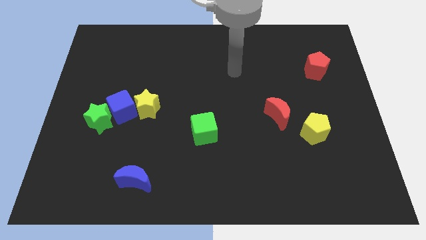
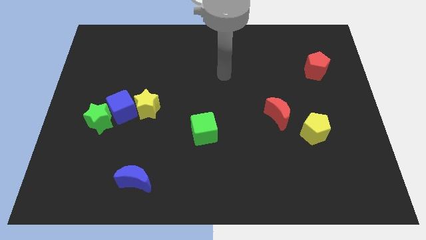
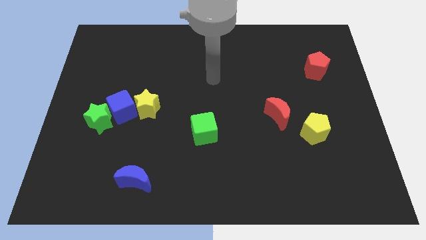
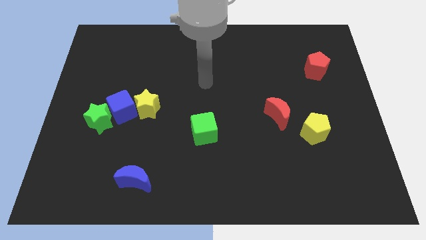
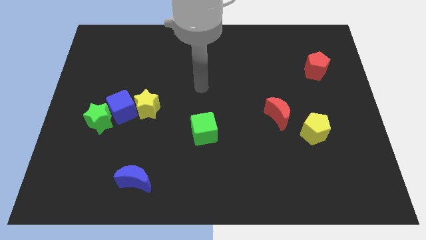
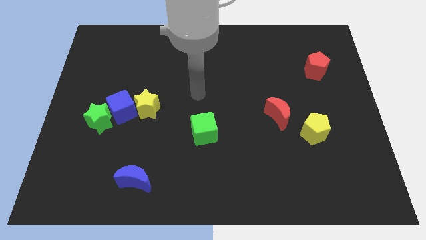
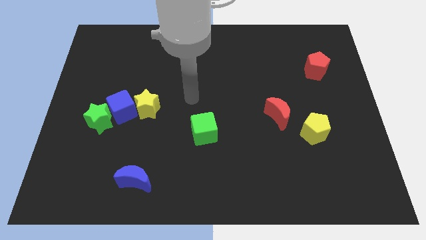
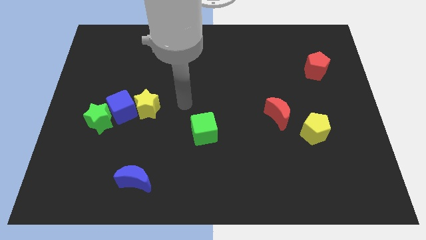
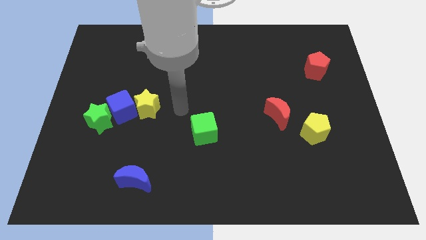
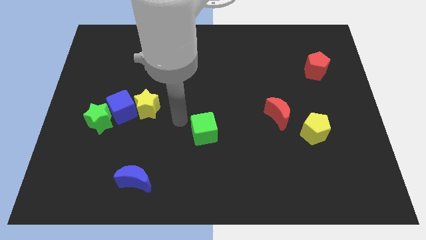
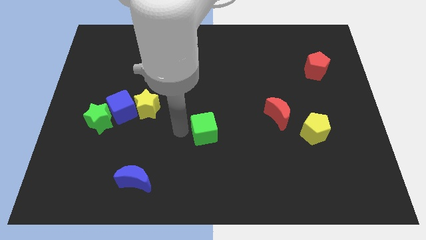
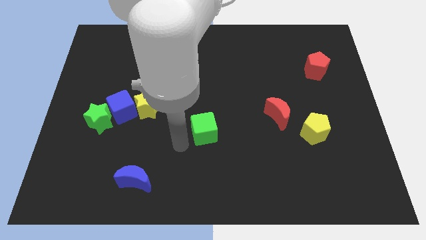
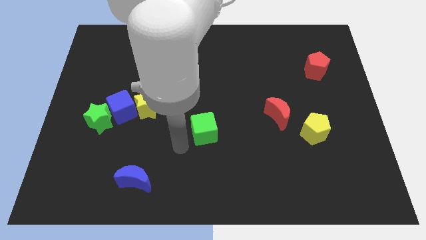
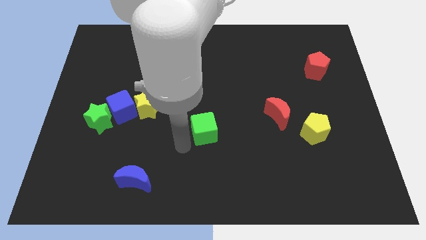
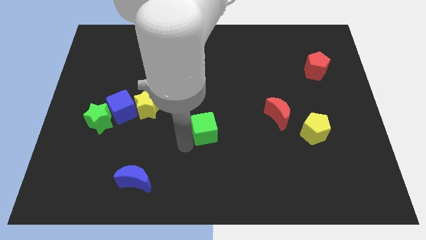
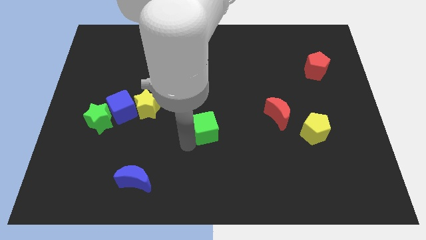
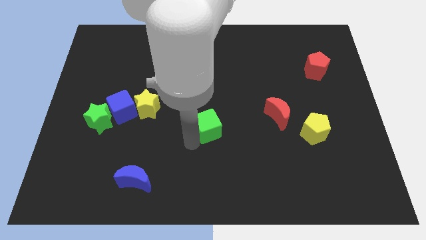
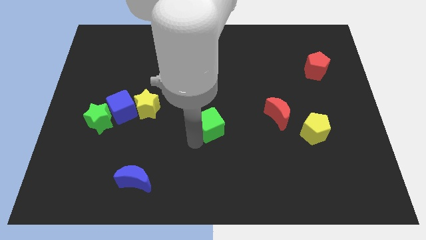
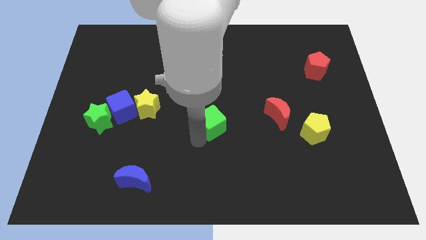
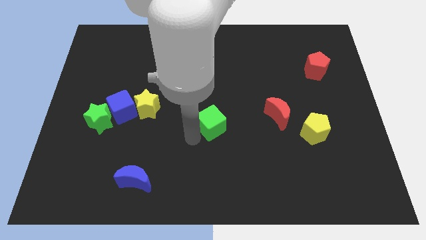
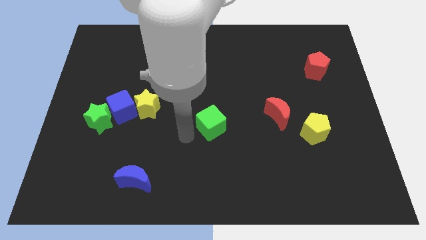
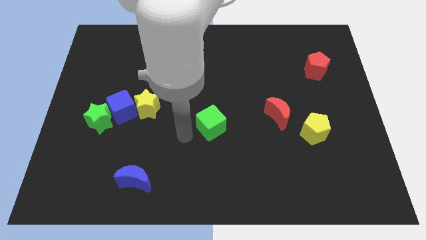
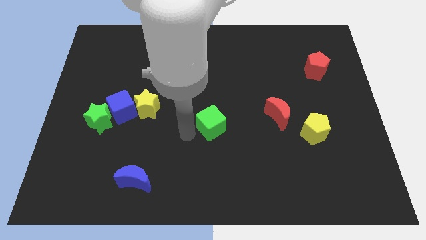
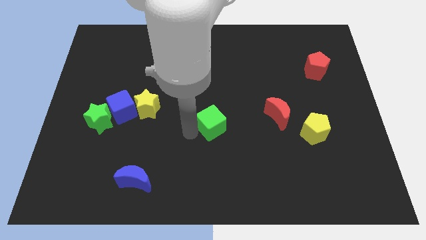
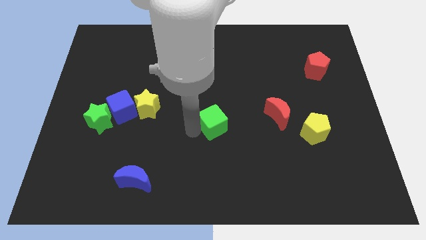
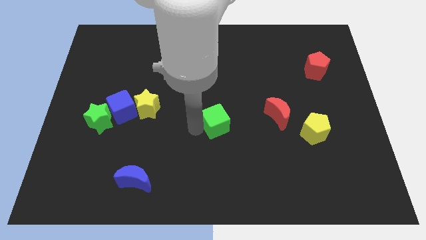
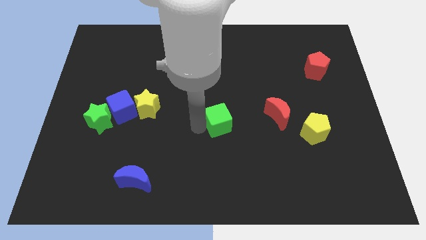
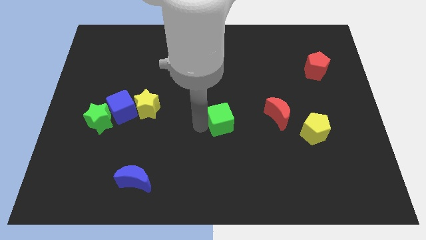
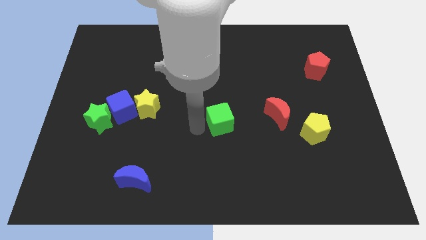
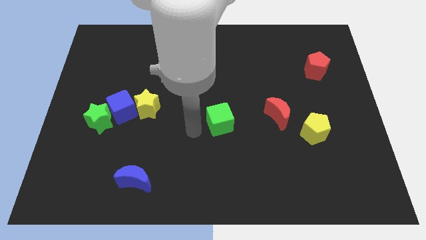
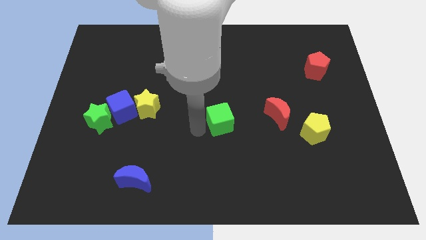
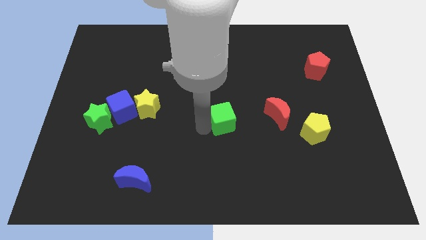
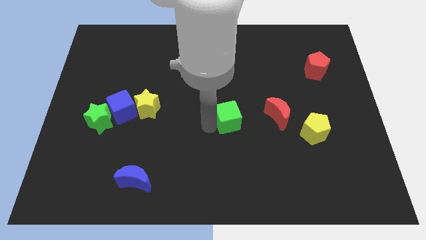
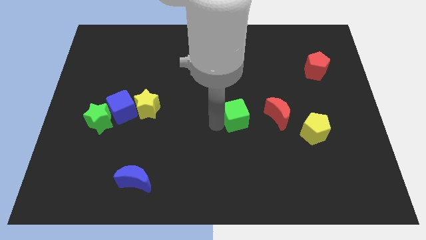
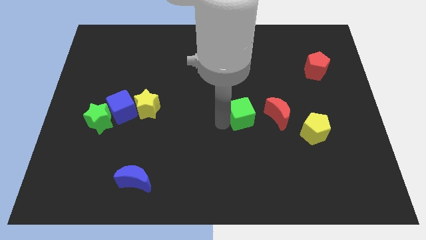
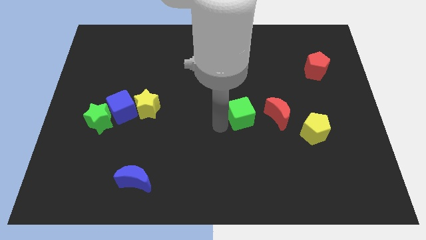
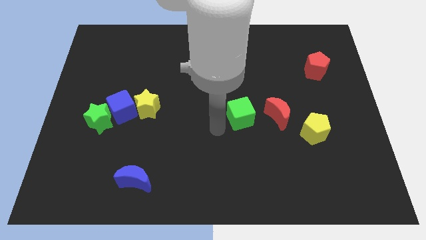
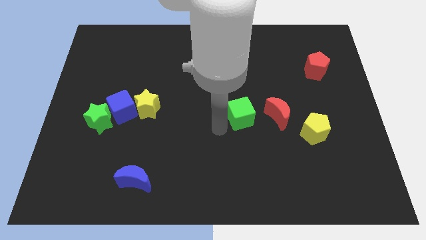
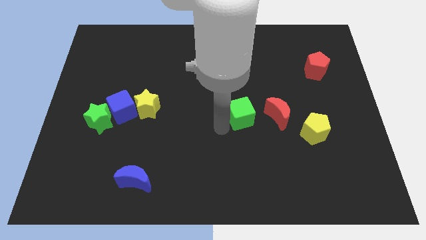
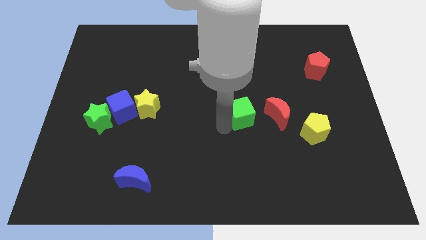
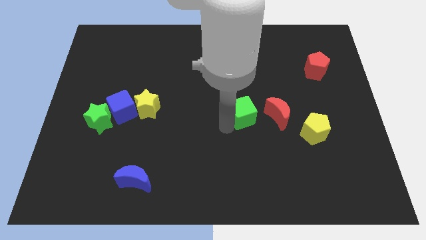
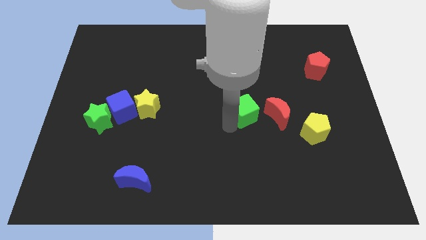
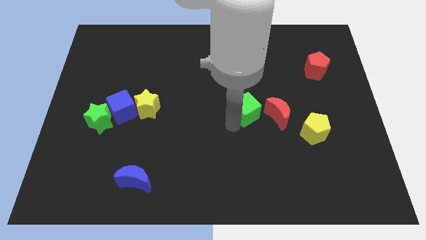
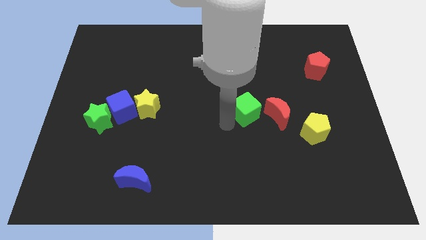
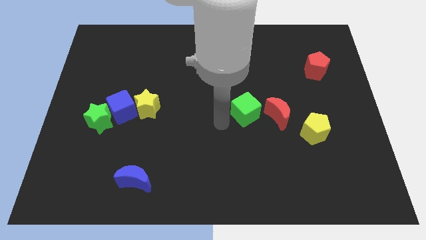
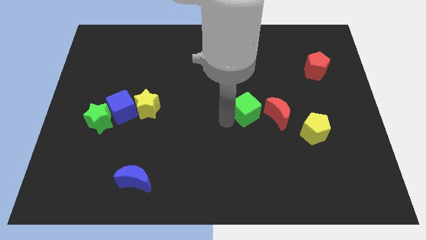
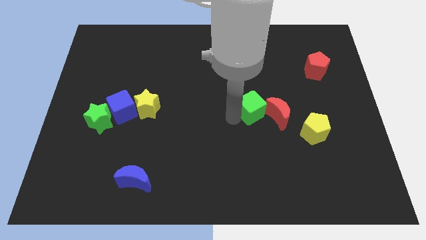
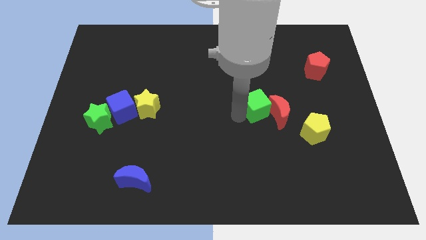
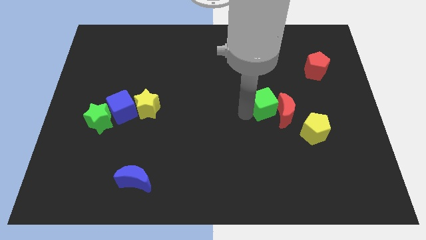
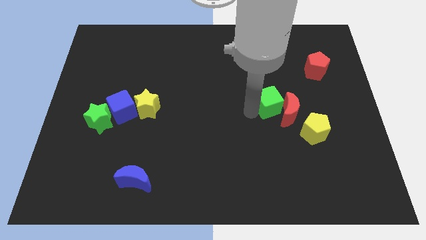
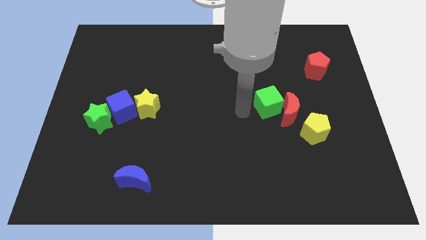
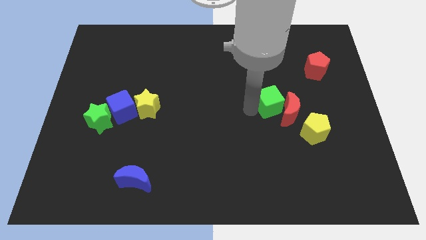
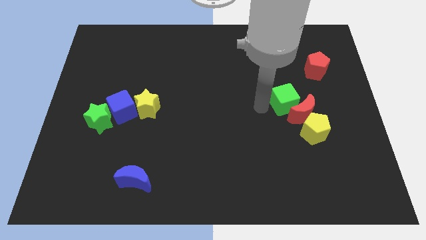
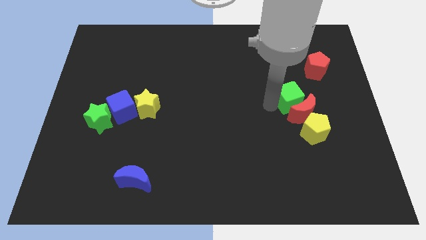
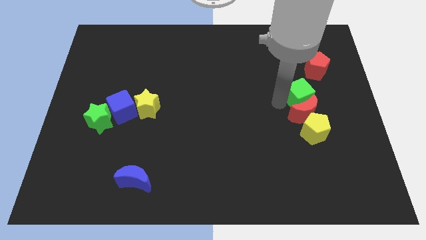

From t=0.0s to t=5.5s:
put the green cube to the top right of the red moon

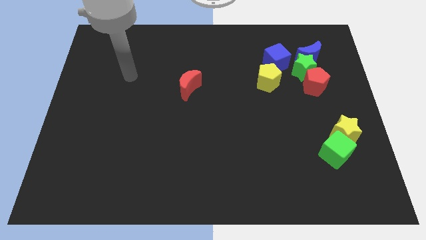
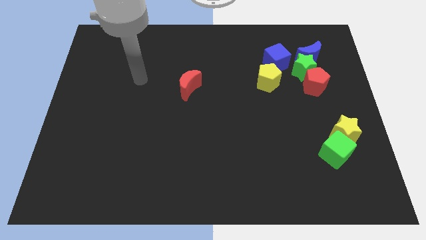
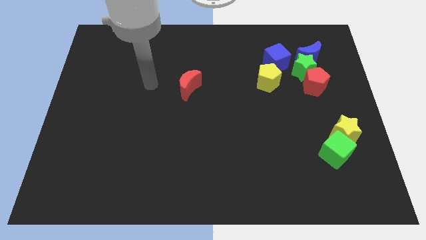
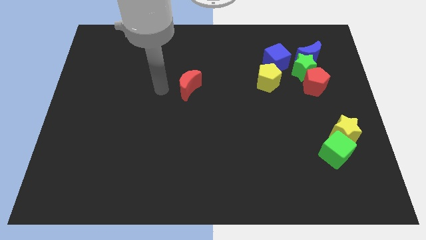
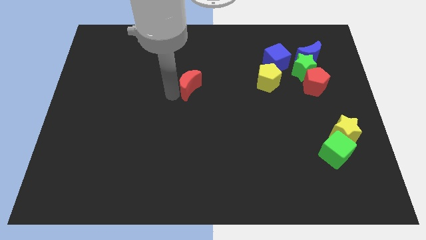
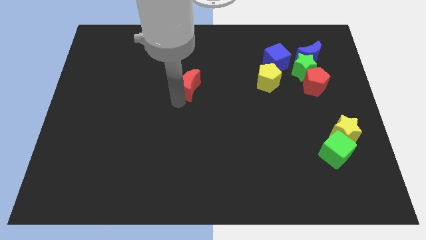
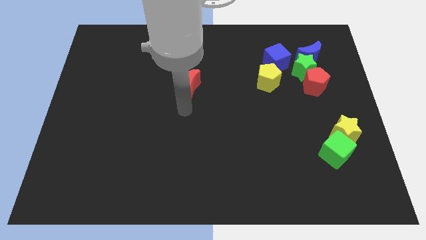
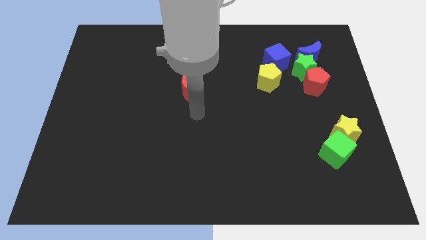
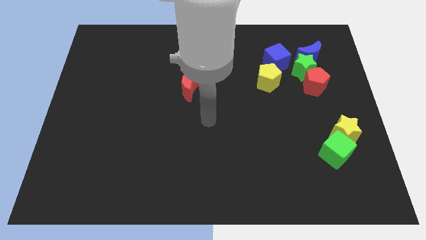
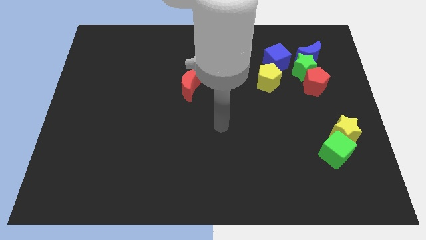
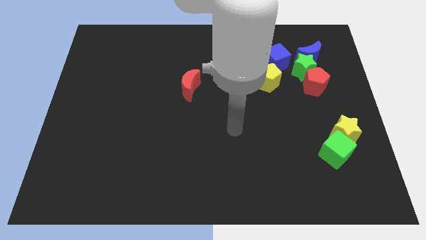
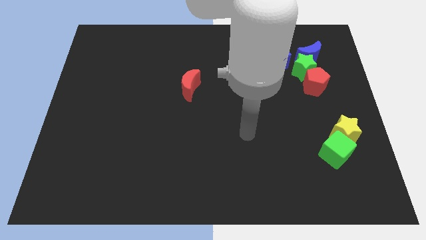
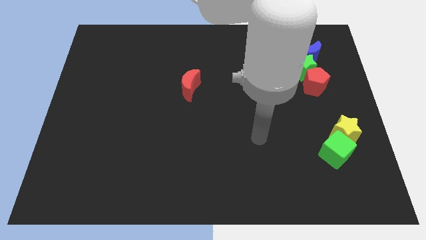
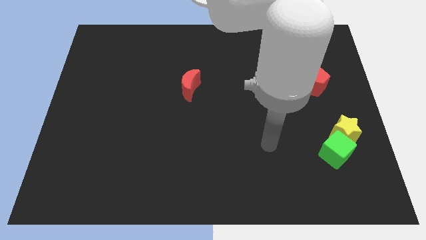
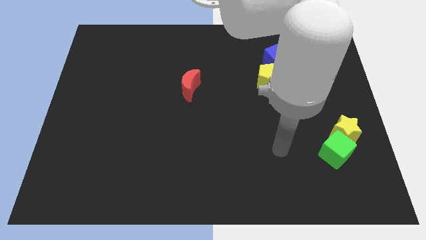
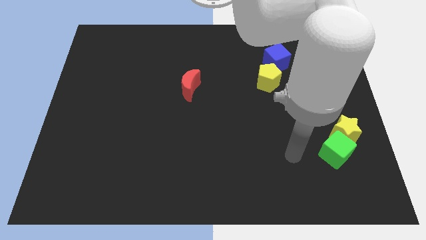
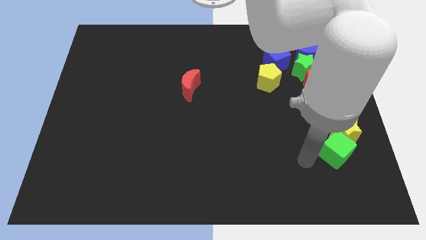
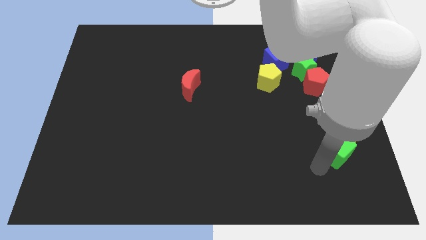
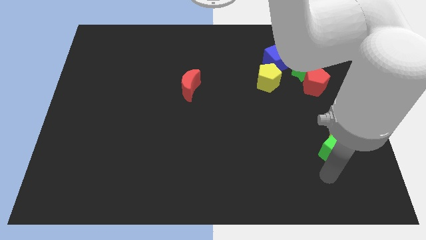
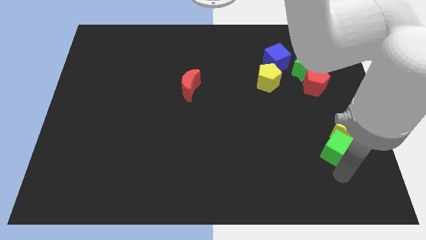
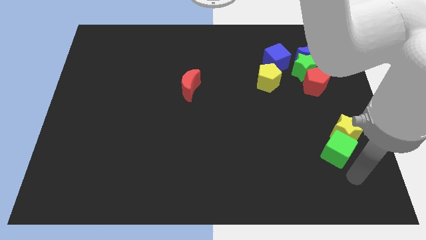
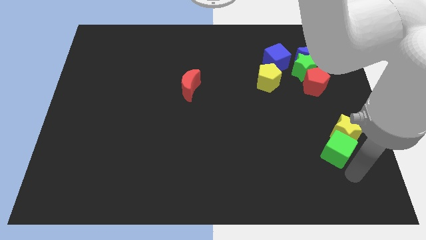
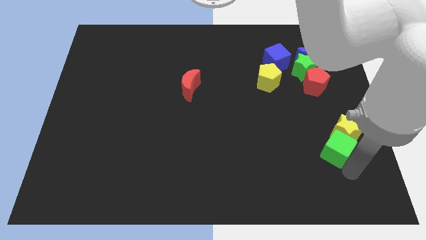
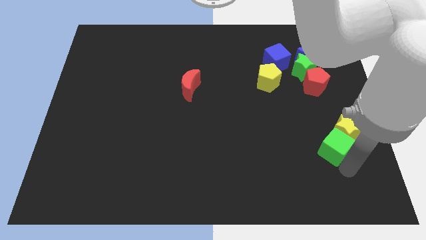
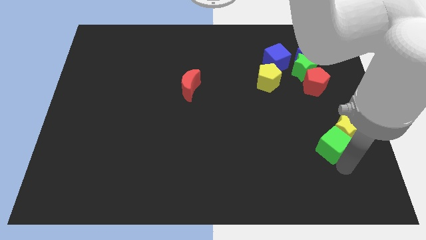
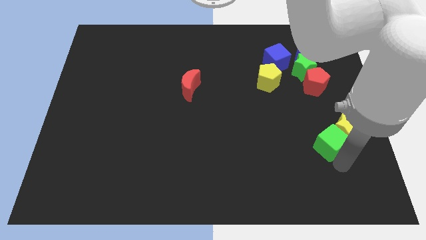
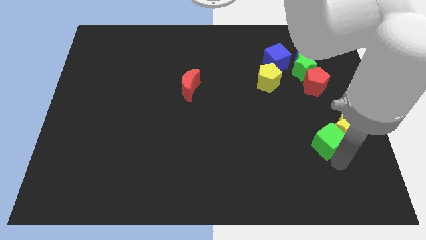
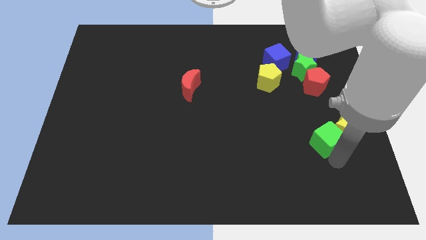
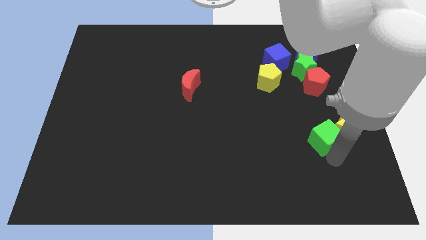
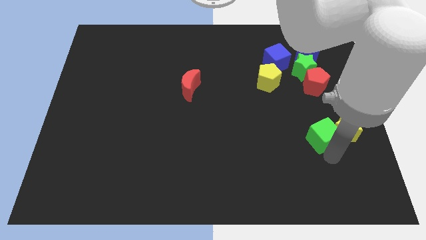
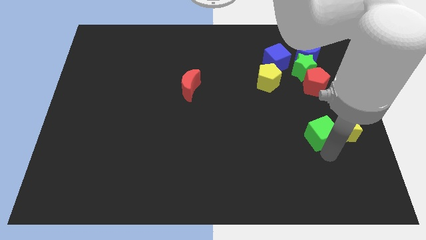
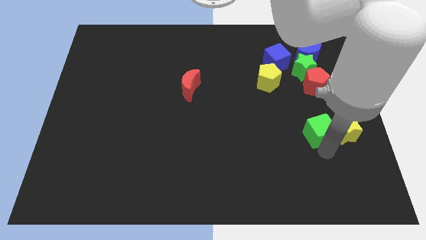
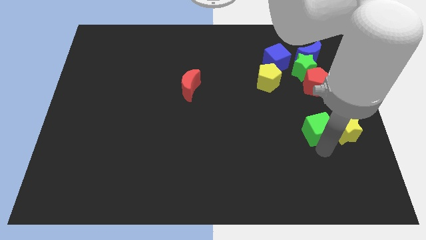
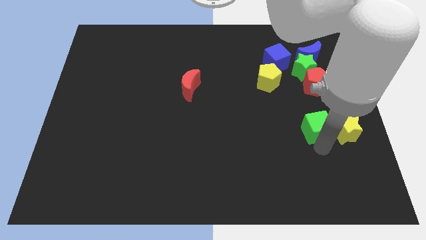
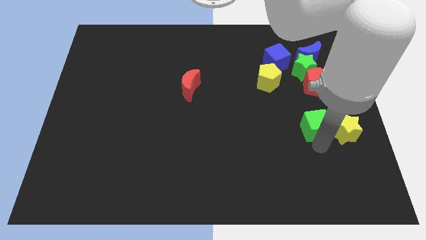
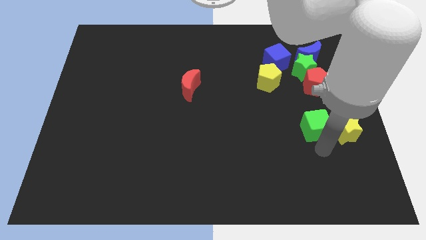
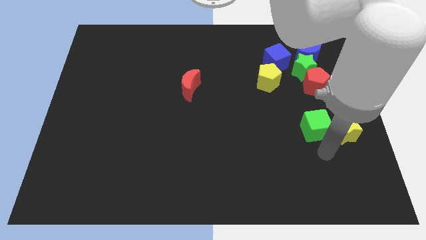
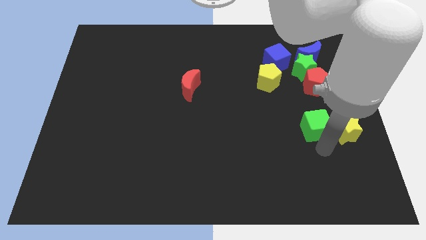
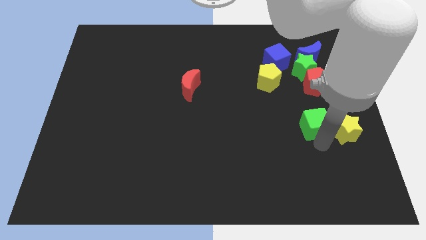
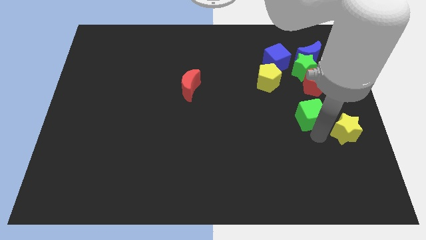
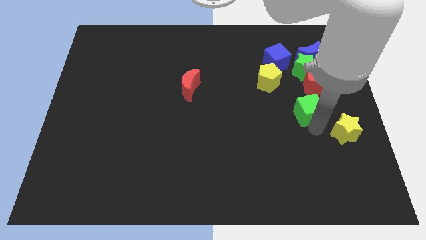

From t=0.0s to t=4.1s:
slide the green cube to the bottom left side of the red pentagon
